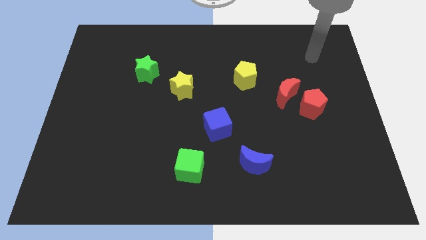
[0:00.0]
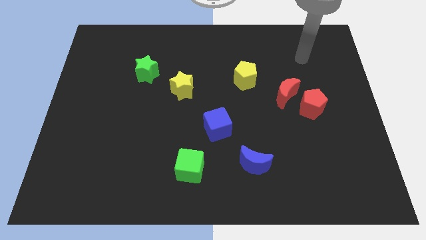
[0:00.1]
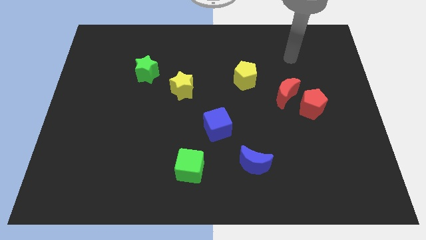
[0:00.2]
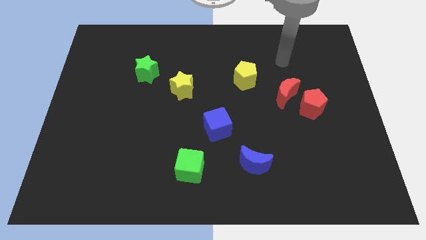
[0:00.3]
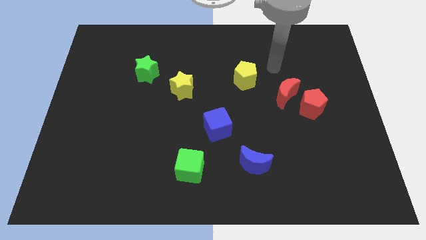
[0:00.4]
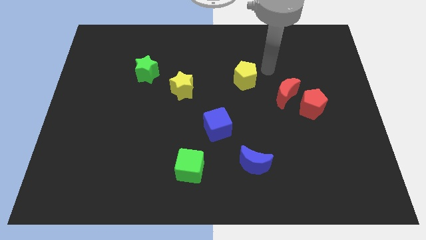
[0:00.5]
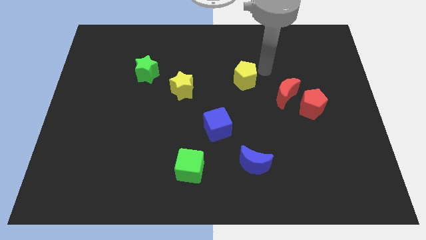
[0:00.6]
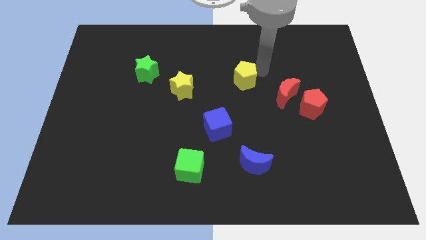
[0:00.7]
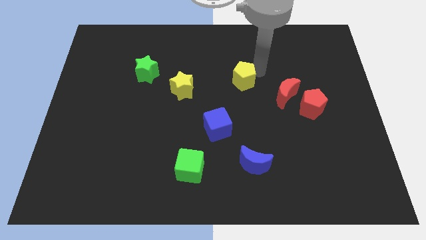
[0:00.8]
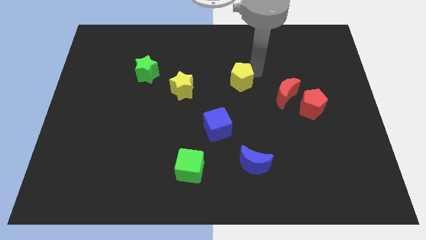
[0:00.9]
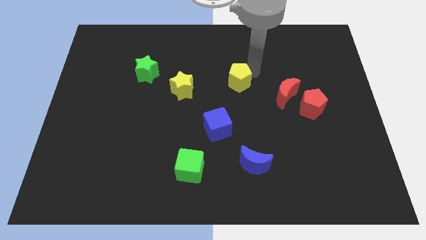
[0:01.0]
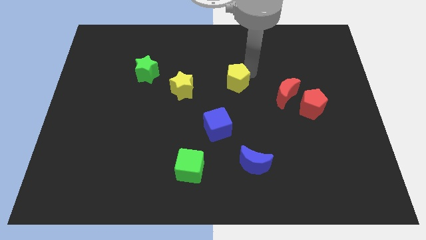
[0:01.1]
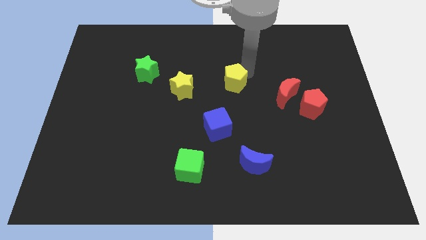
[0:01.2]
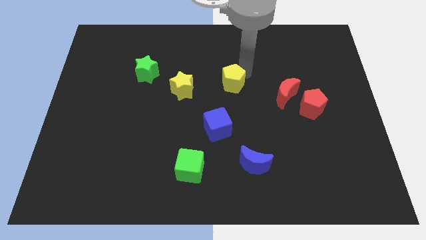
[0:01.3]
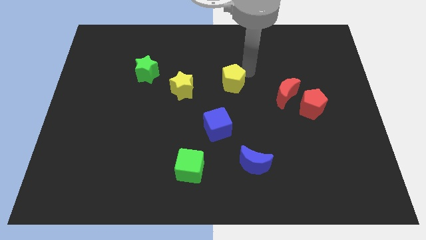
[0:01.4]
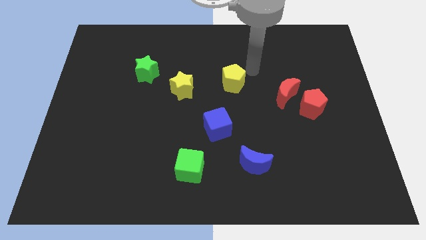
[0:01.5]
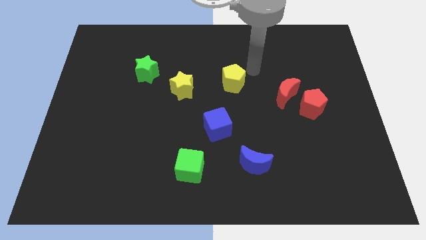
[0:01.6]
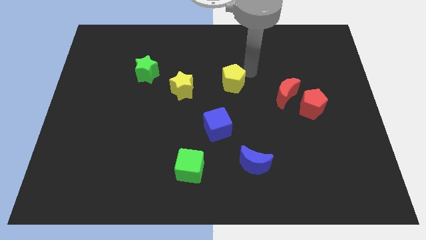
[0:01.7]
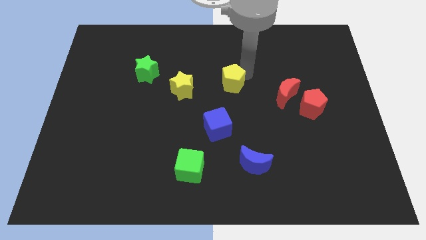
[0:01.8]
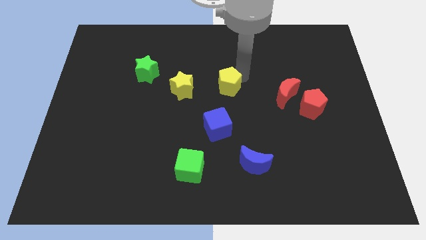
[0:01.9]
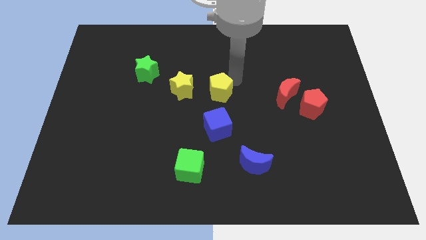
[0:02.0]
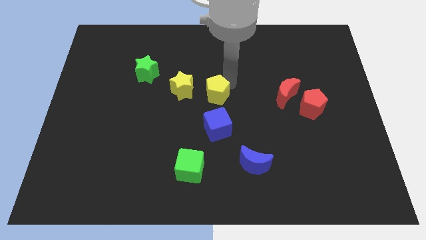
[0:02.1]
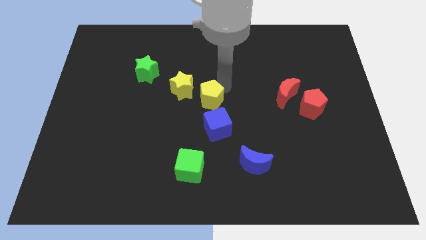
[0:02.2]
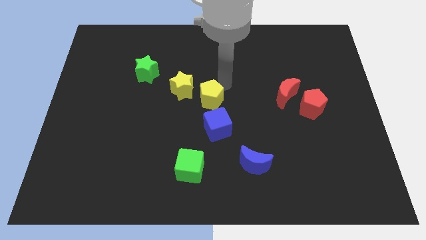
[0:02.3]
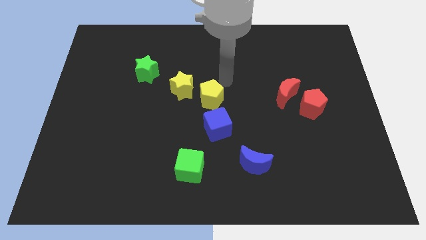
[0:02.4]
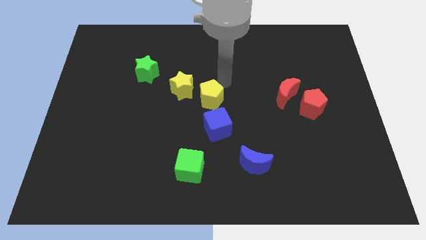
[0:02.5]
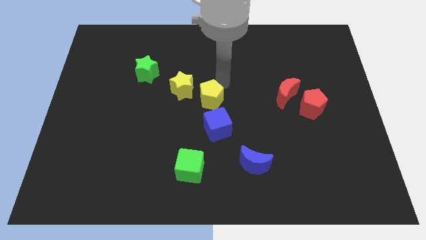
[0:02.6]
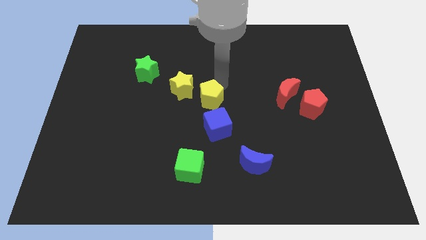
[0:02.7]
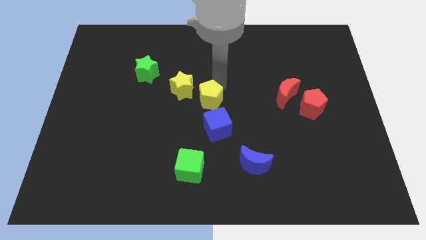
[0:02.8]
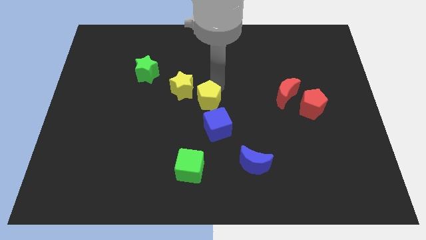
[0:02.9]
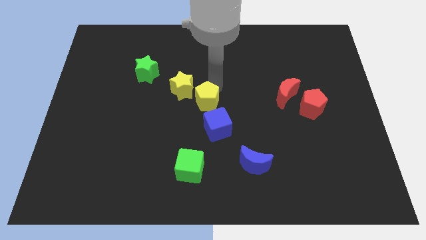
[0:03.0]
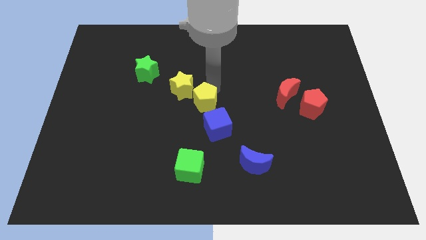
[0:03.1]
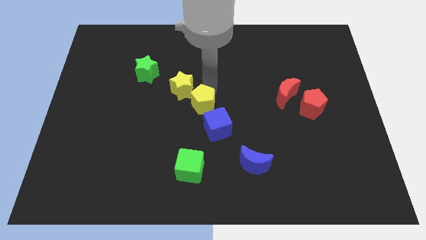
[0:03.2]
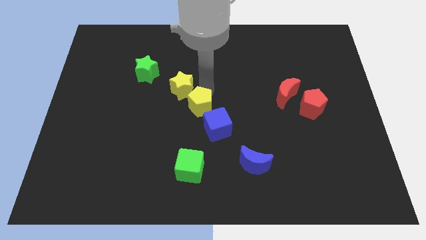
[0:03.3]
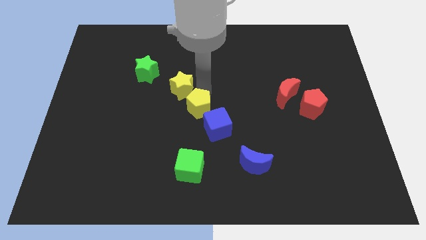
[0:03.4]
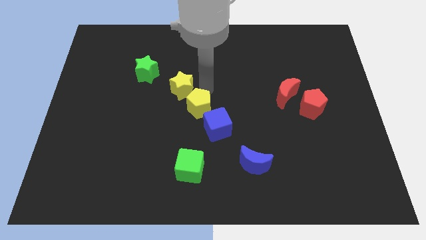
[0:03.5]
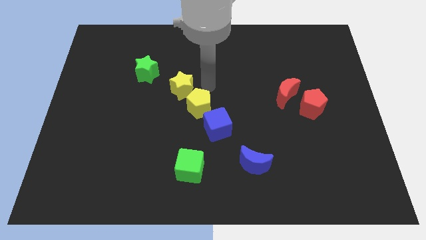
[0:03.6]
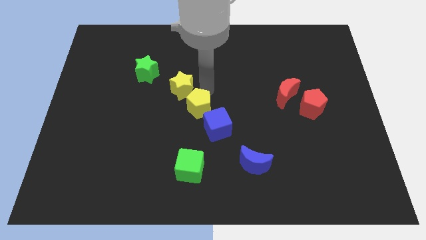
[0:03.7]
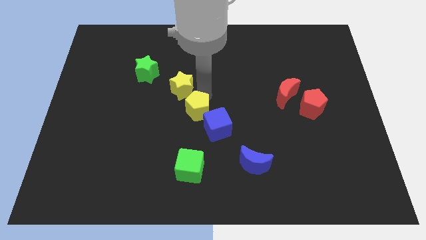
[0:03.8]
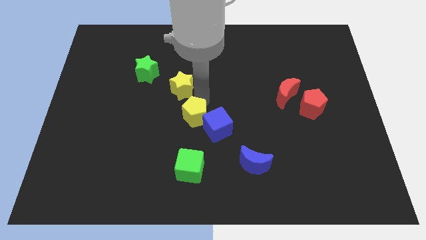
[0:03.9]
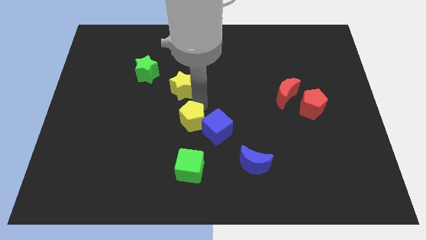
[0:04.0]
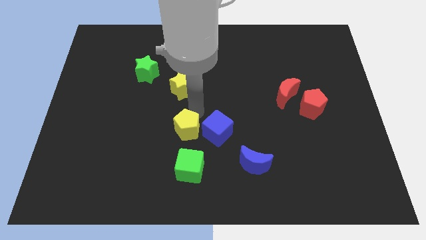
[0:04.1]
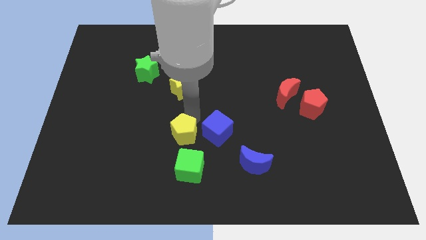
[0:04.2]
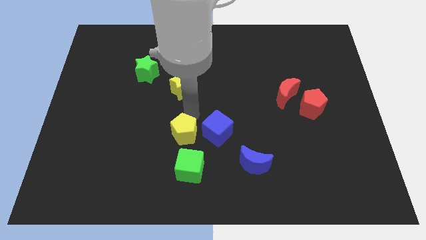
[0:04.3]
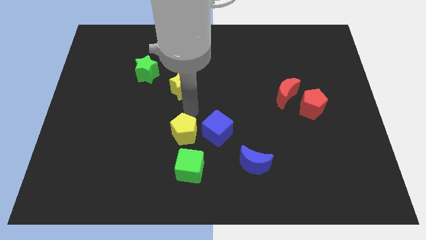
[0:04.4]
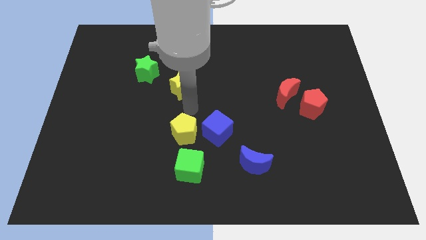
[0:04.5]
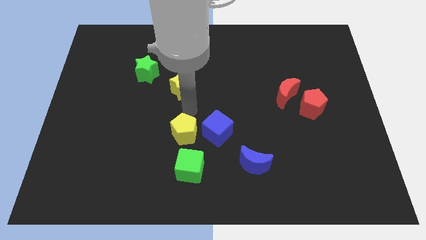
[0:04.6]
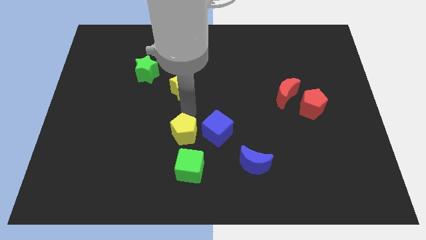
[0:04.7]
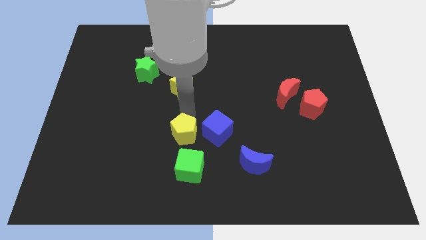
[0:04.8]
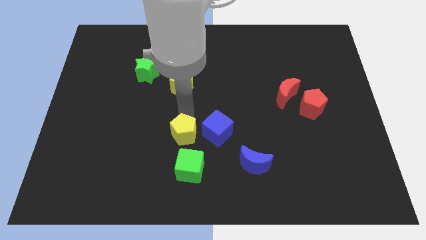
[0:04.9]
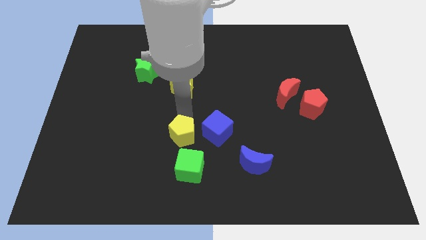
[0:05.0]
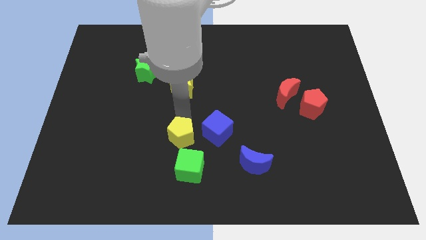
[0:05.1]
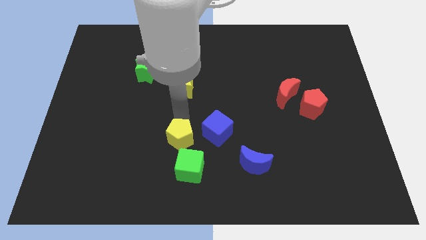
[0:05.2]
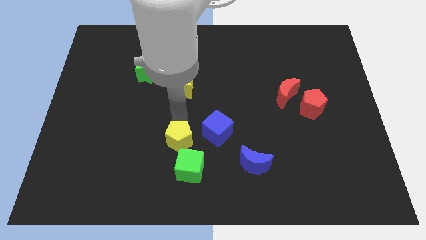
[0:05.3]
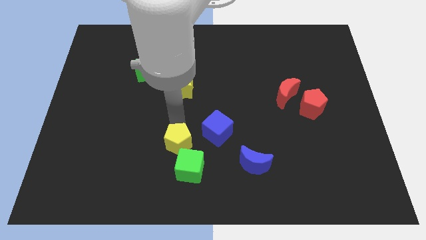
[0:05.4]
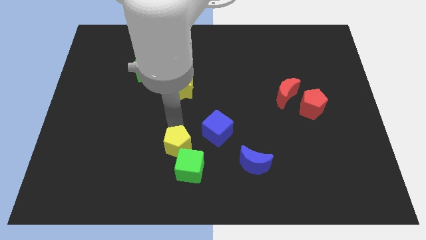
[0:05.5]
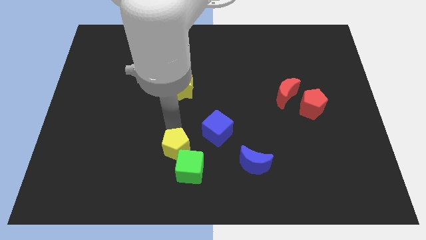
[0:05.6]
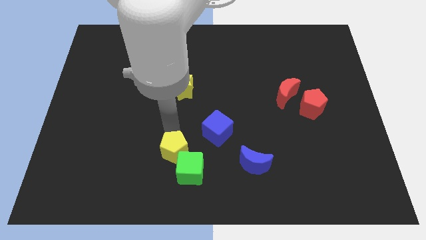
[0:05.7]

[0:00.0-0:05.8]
push the yellow pentagon next to the green cube
